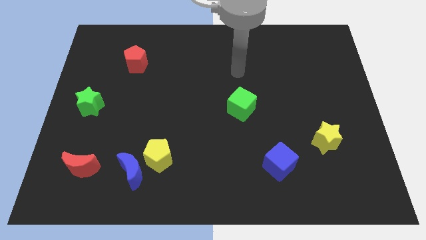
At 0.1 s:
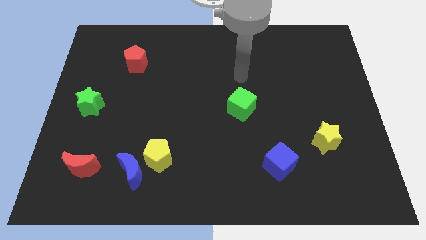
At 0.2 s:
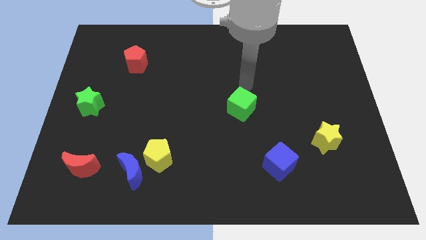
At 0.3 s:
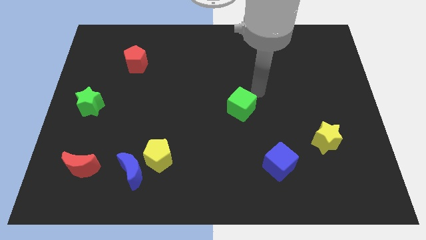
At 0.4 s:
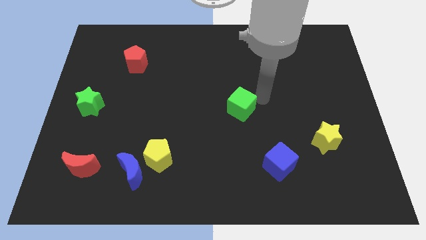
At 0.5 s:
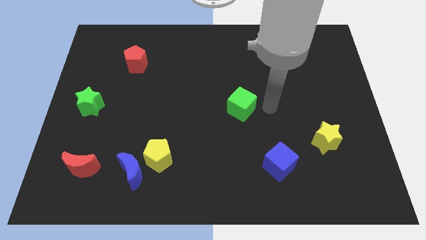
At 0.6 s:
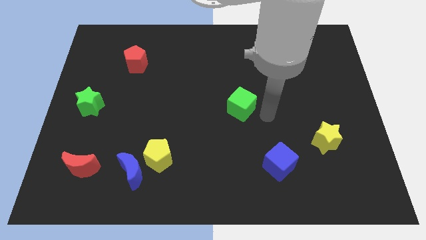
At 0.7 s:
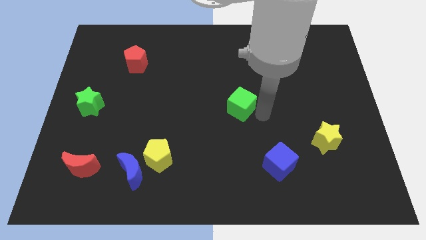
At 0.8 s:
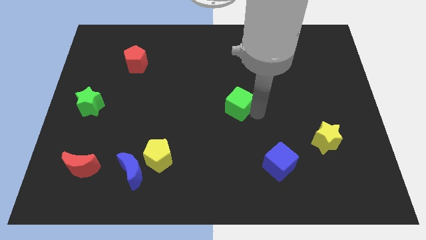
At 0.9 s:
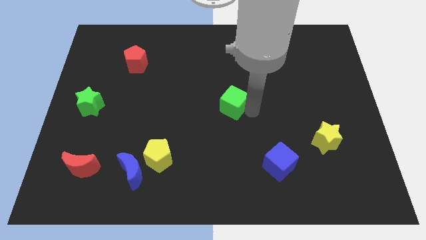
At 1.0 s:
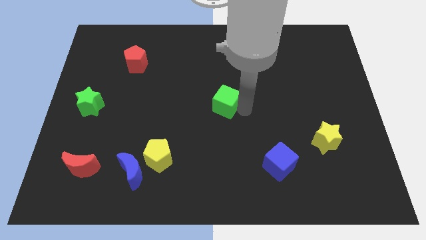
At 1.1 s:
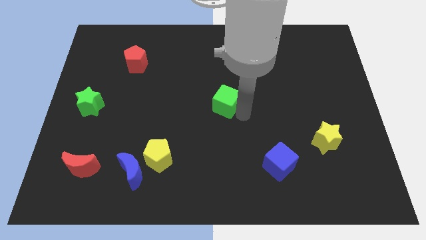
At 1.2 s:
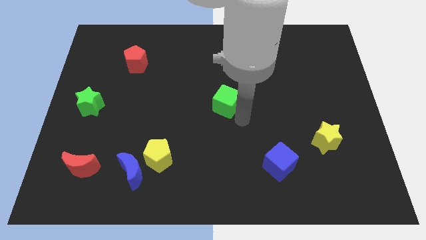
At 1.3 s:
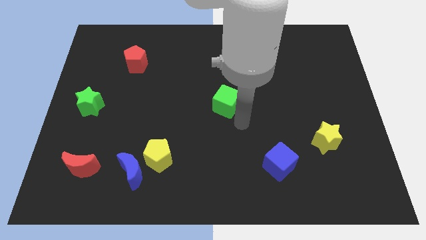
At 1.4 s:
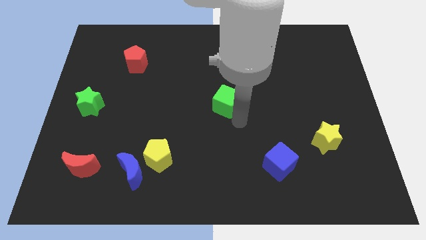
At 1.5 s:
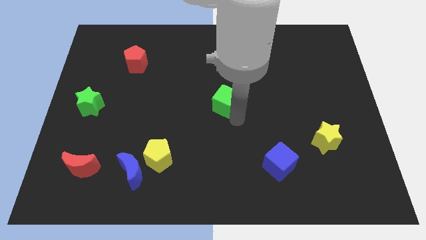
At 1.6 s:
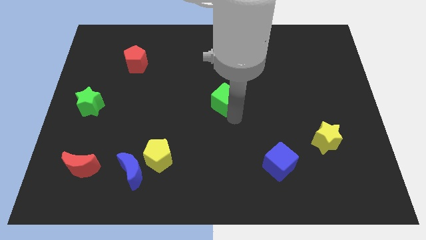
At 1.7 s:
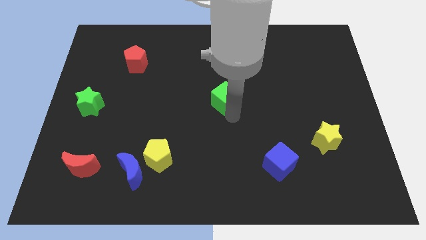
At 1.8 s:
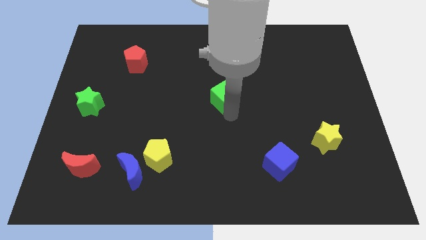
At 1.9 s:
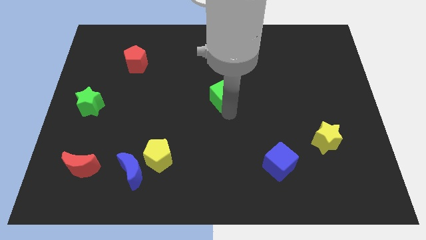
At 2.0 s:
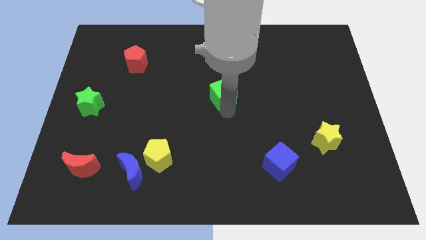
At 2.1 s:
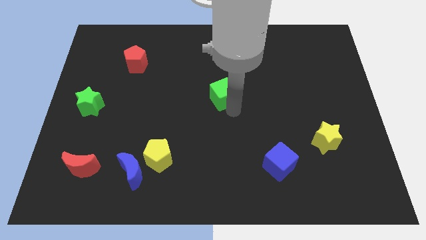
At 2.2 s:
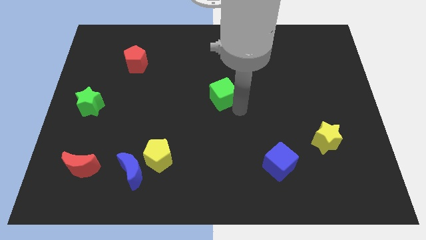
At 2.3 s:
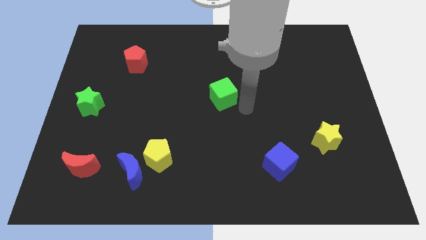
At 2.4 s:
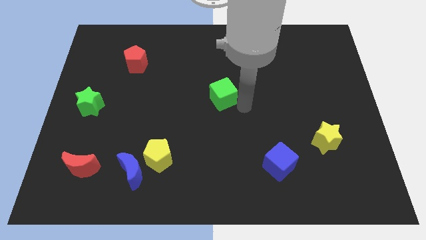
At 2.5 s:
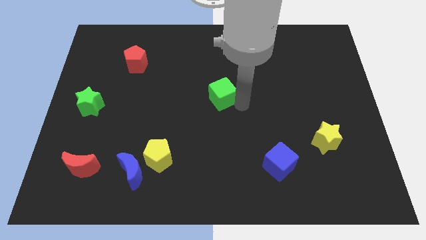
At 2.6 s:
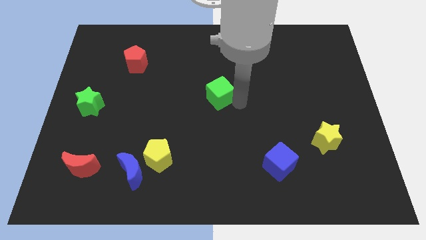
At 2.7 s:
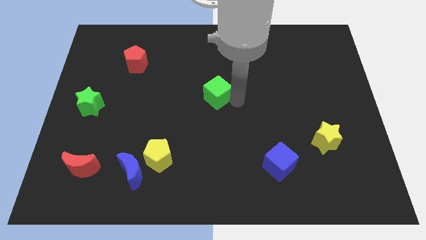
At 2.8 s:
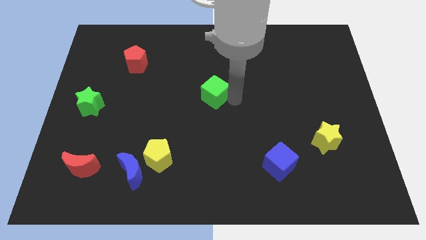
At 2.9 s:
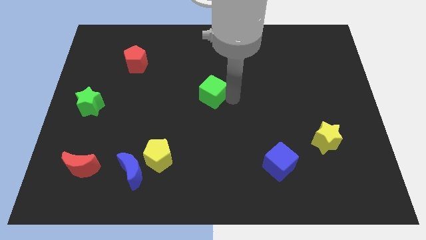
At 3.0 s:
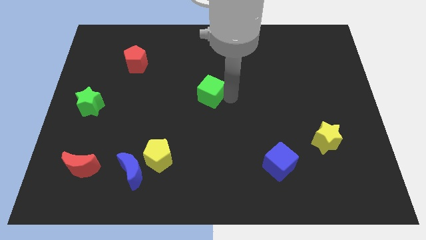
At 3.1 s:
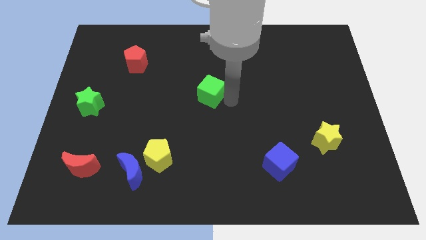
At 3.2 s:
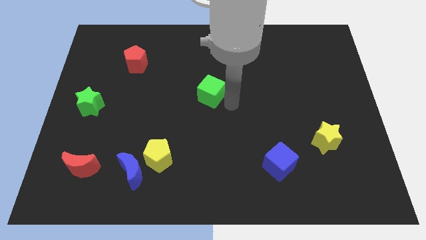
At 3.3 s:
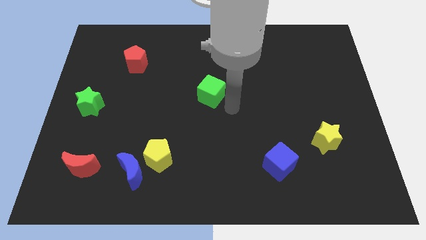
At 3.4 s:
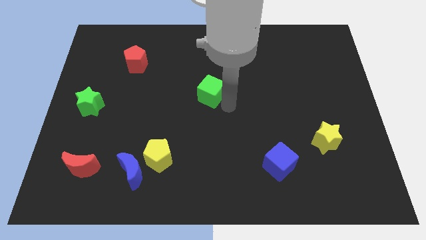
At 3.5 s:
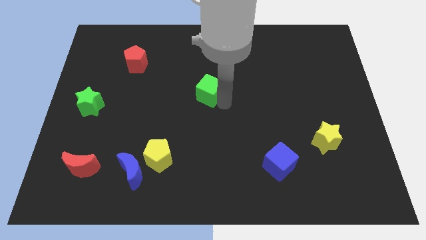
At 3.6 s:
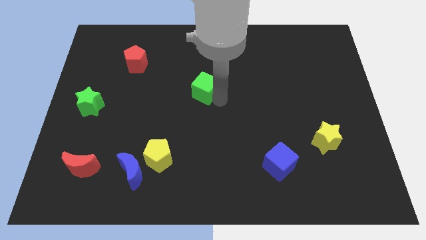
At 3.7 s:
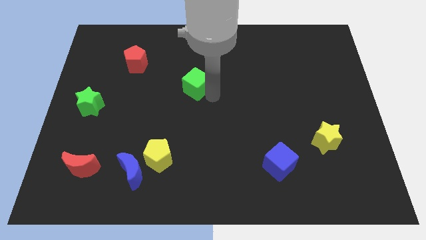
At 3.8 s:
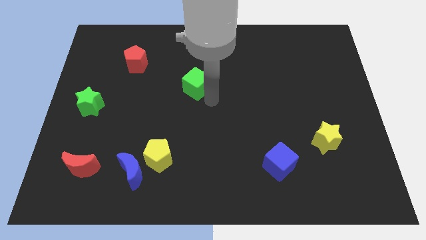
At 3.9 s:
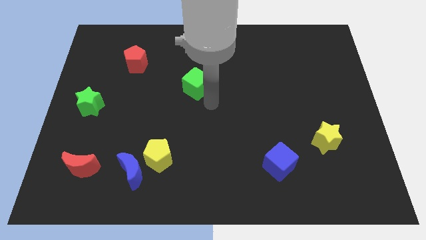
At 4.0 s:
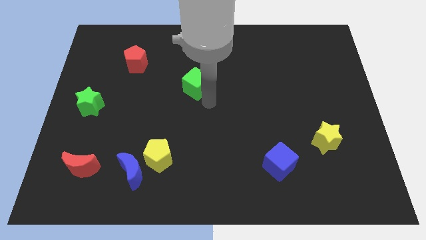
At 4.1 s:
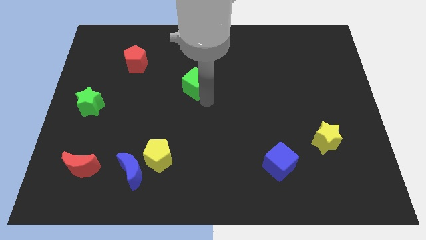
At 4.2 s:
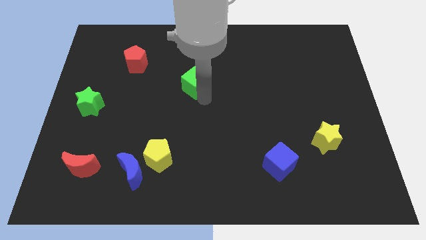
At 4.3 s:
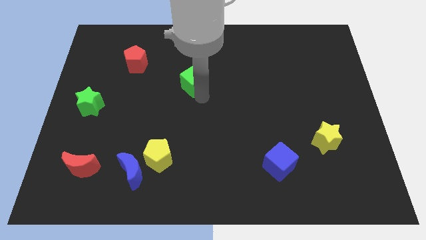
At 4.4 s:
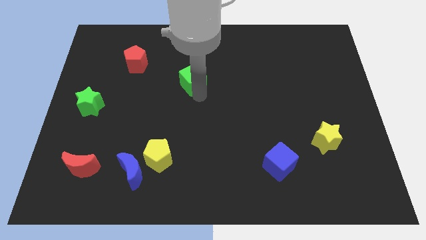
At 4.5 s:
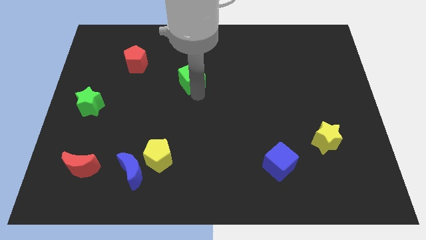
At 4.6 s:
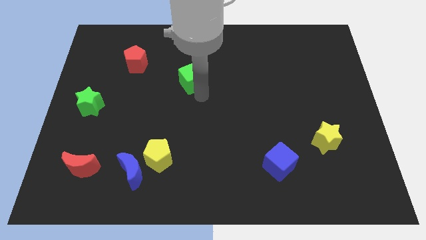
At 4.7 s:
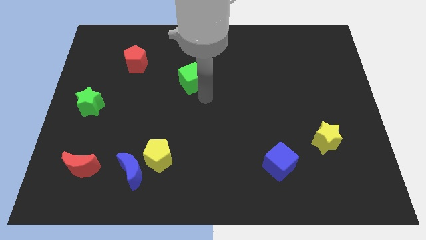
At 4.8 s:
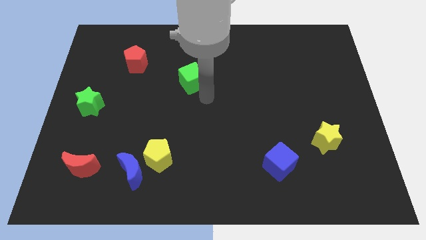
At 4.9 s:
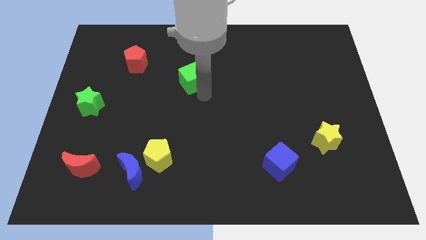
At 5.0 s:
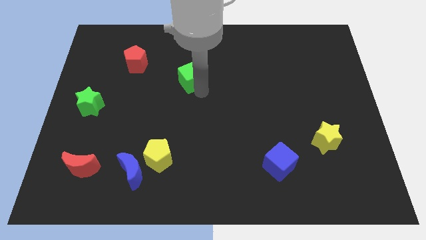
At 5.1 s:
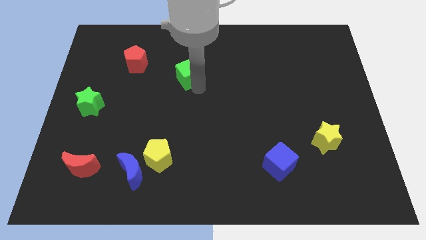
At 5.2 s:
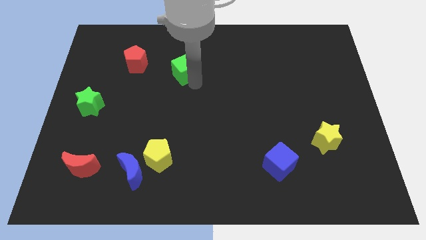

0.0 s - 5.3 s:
push the green cube to the right side of the red pentagon

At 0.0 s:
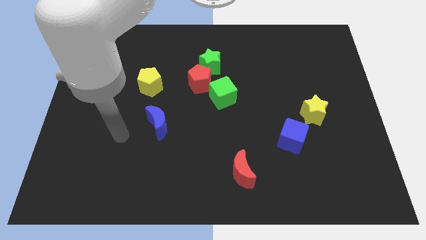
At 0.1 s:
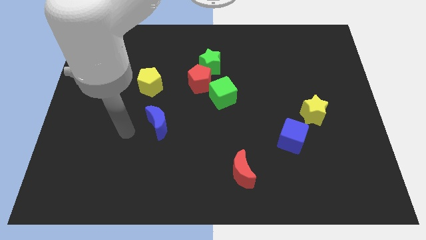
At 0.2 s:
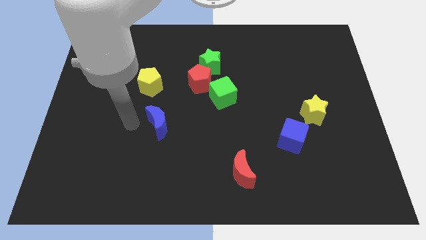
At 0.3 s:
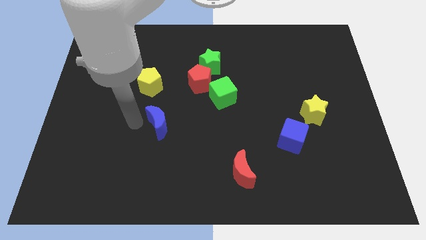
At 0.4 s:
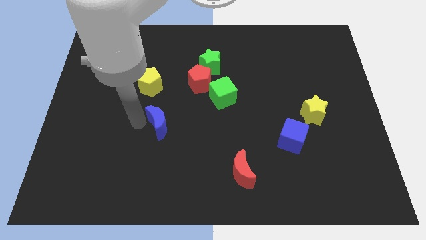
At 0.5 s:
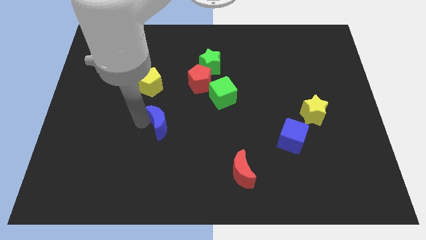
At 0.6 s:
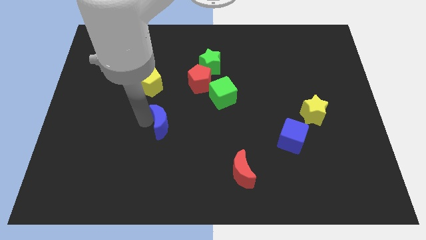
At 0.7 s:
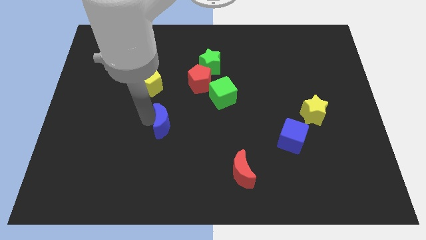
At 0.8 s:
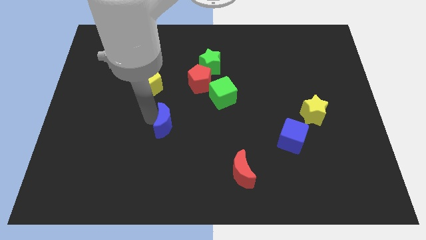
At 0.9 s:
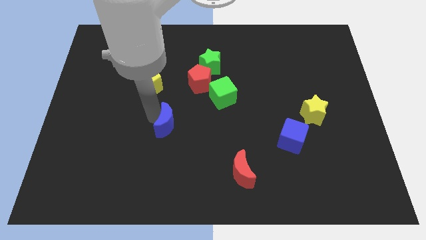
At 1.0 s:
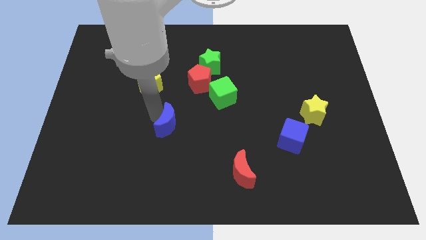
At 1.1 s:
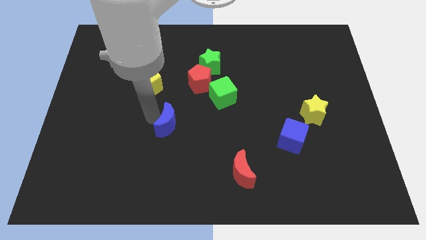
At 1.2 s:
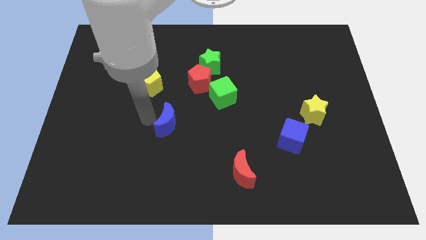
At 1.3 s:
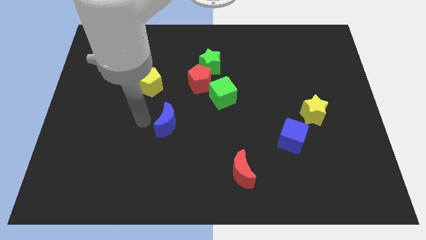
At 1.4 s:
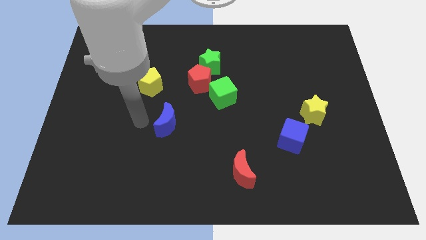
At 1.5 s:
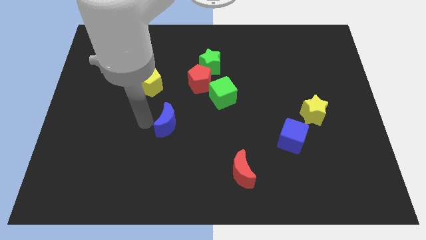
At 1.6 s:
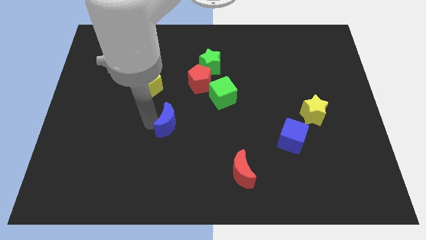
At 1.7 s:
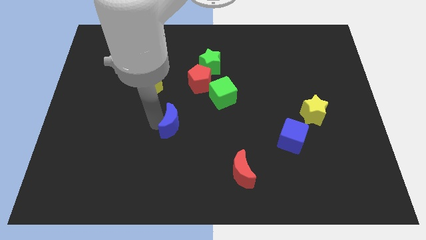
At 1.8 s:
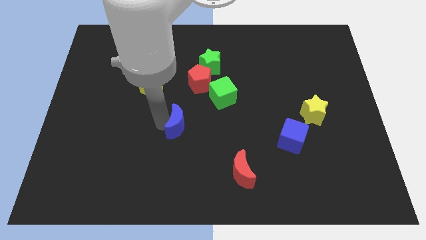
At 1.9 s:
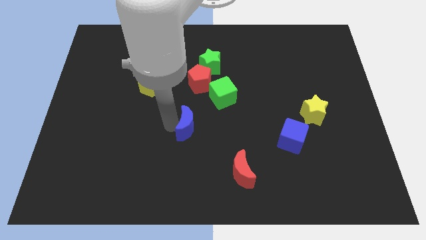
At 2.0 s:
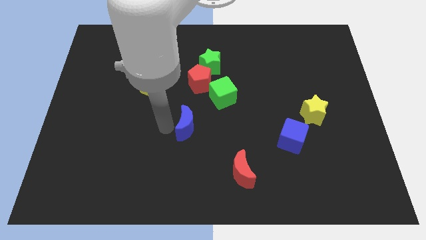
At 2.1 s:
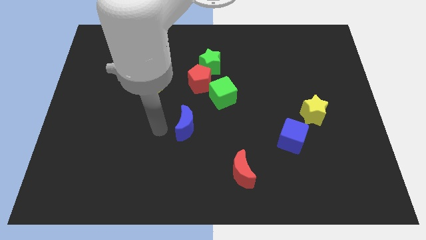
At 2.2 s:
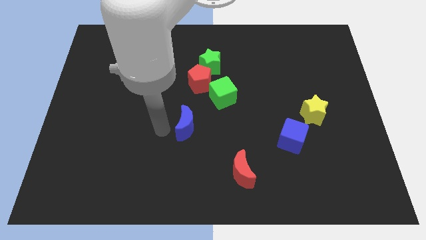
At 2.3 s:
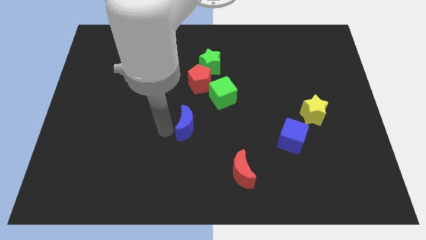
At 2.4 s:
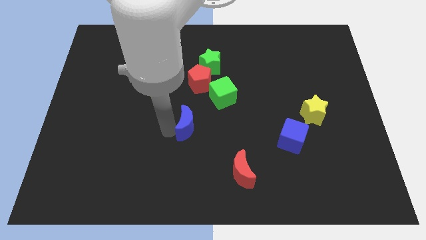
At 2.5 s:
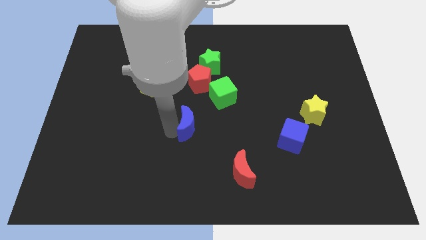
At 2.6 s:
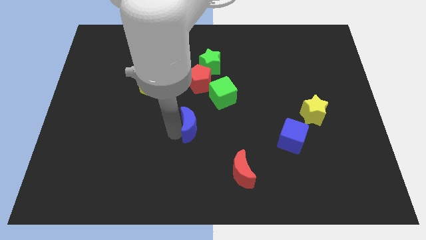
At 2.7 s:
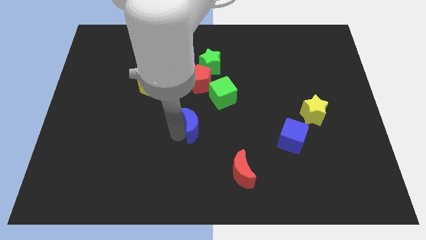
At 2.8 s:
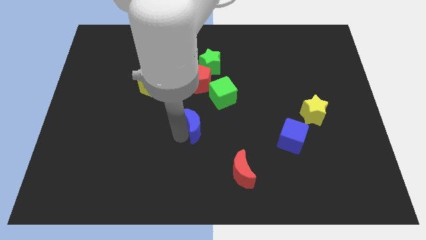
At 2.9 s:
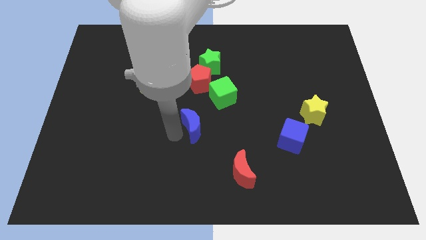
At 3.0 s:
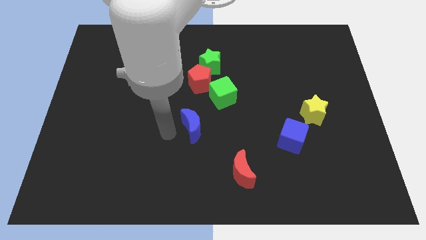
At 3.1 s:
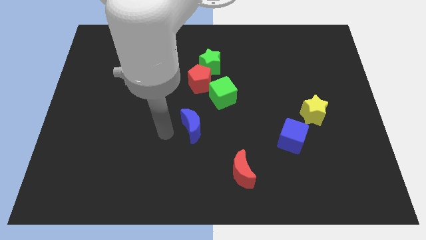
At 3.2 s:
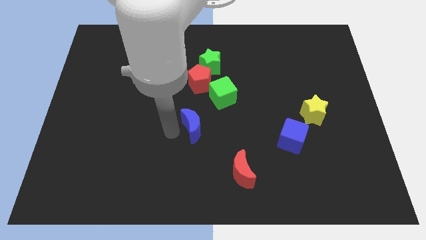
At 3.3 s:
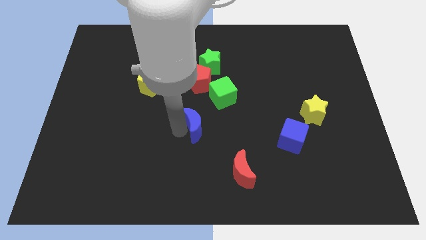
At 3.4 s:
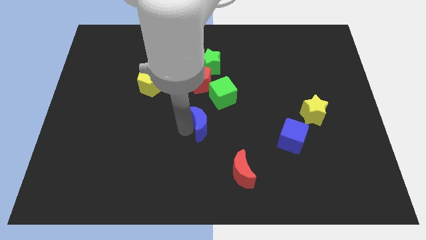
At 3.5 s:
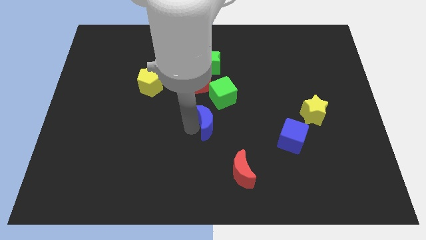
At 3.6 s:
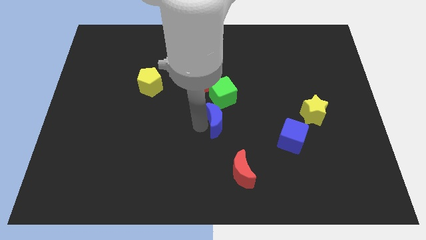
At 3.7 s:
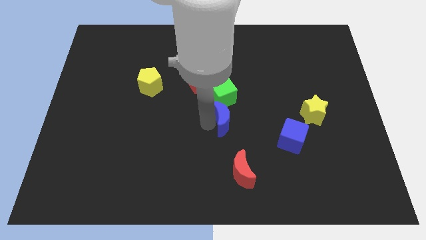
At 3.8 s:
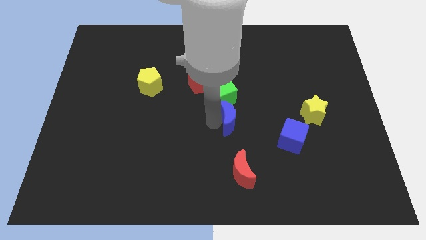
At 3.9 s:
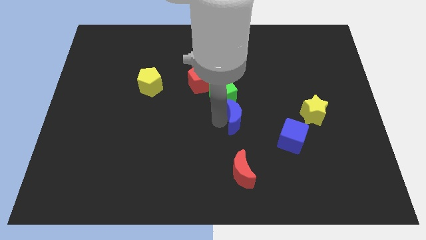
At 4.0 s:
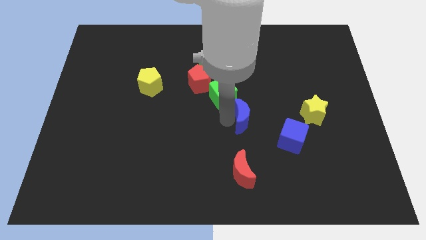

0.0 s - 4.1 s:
put the blue moon to the top left side of the blue cube
